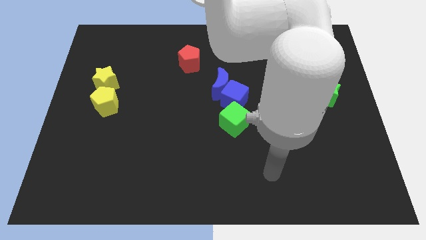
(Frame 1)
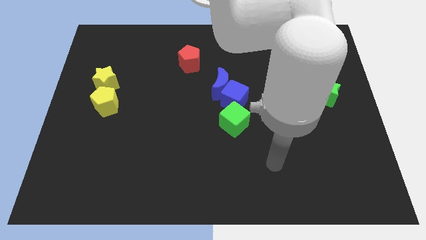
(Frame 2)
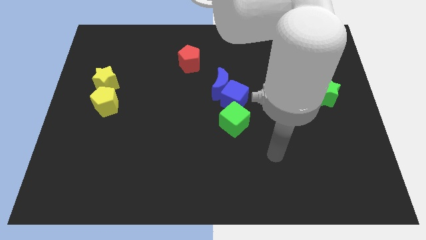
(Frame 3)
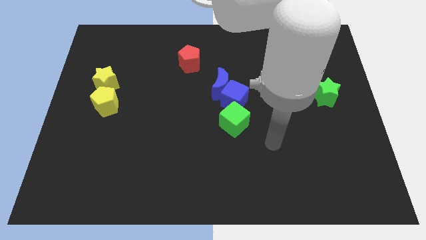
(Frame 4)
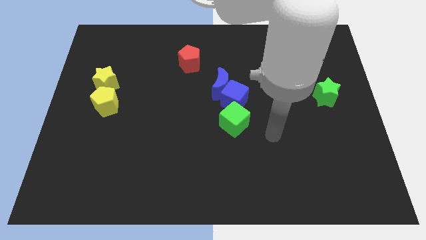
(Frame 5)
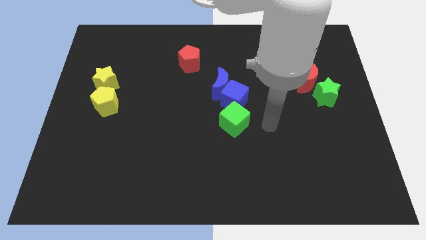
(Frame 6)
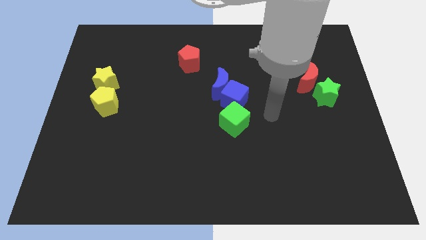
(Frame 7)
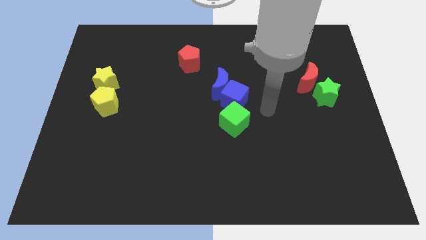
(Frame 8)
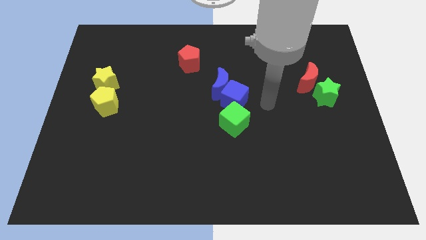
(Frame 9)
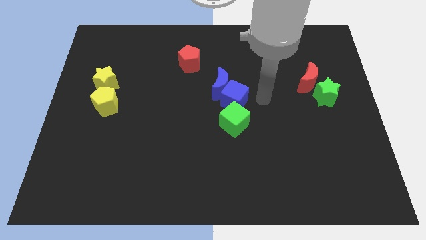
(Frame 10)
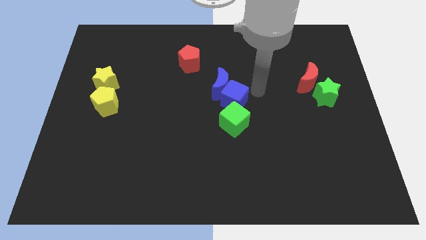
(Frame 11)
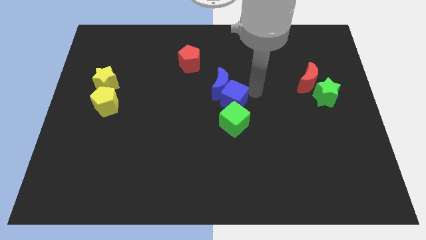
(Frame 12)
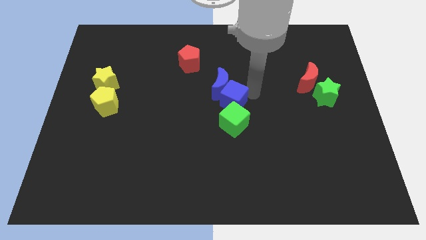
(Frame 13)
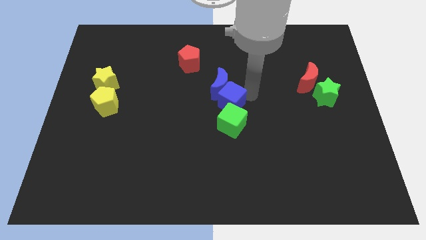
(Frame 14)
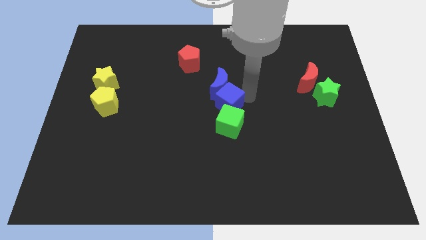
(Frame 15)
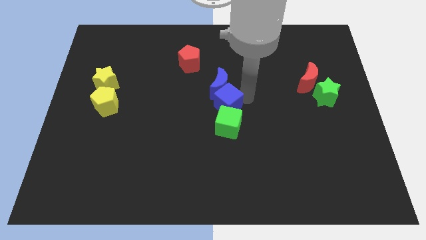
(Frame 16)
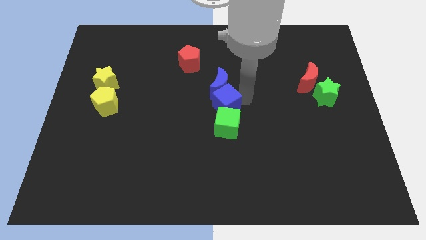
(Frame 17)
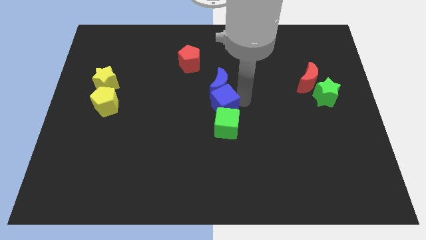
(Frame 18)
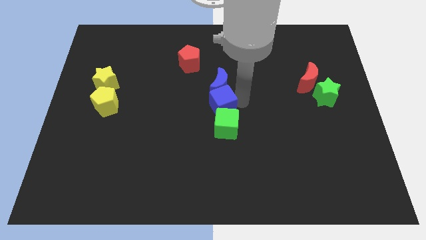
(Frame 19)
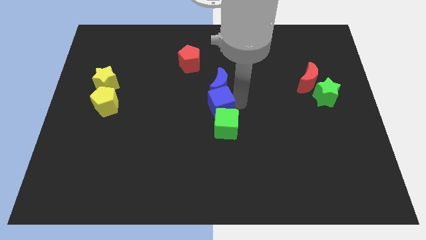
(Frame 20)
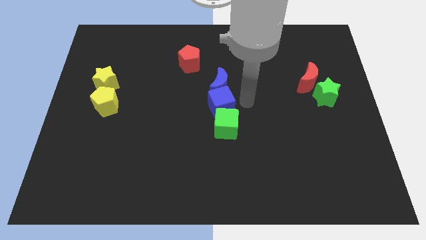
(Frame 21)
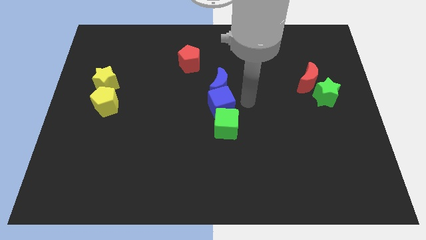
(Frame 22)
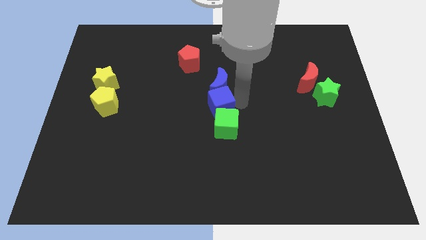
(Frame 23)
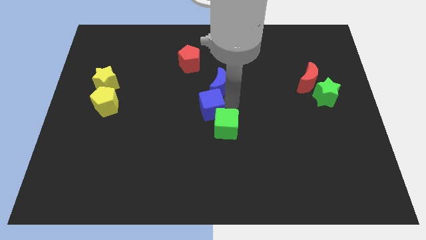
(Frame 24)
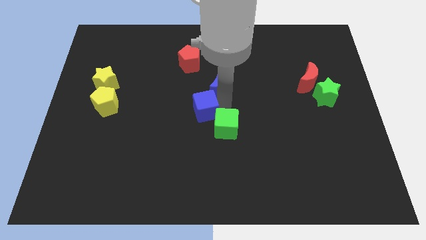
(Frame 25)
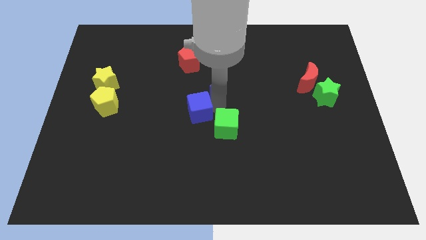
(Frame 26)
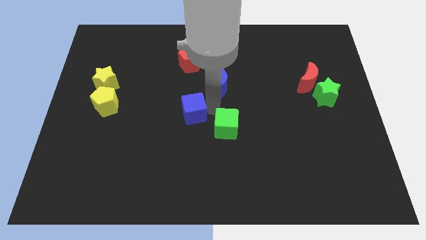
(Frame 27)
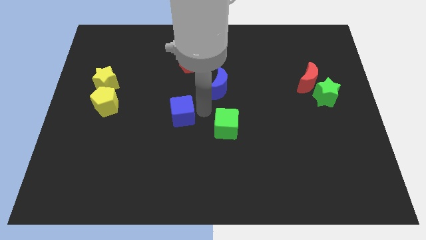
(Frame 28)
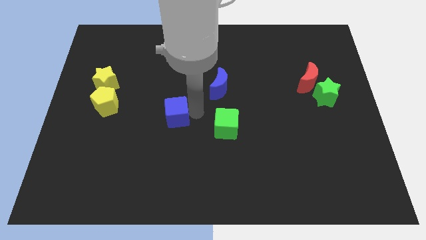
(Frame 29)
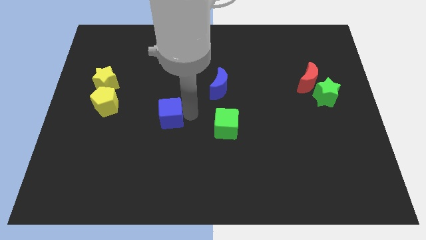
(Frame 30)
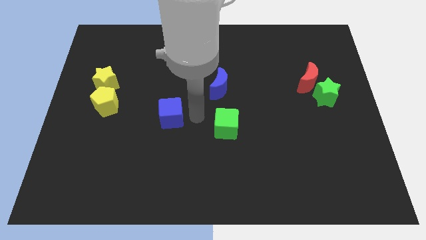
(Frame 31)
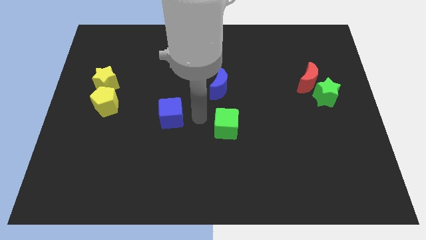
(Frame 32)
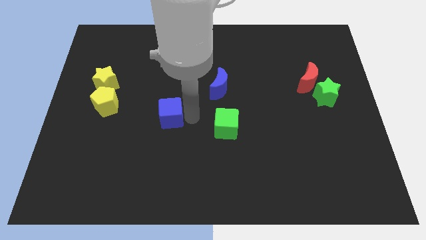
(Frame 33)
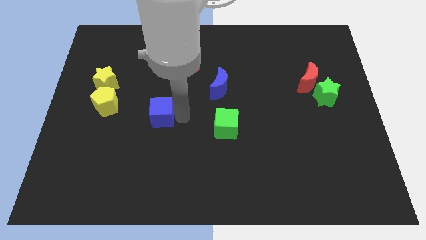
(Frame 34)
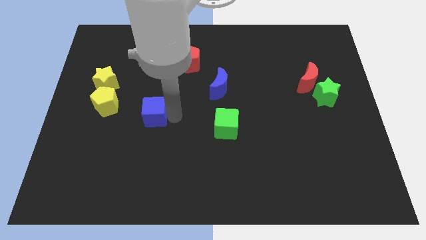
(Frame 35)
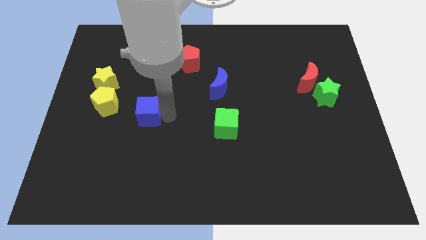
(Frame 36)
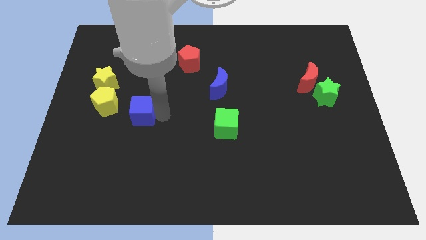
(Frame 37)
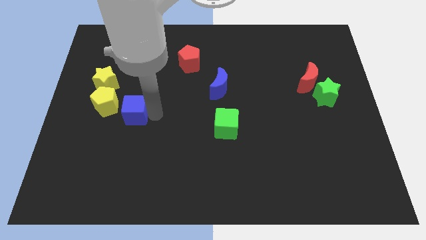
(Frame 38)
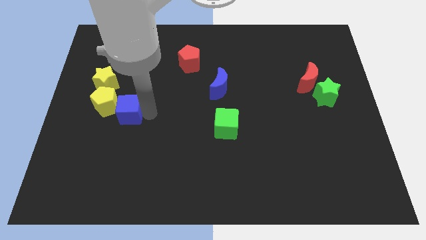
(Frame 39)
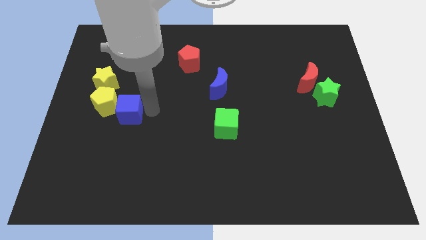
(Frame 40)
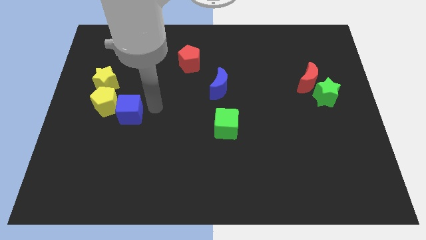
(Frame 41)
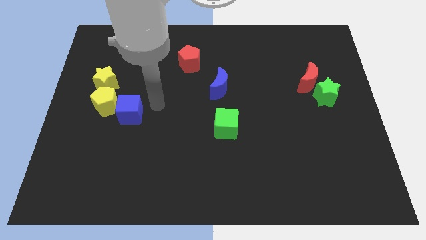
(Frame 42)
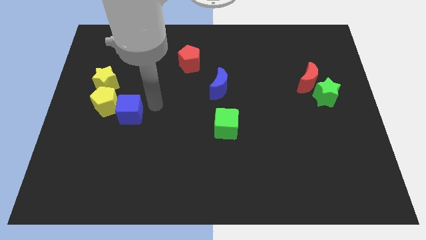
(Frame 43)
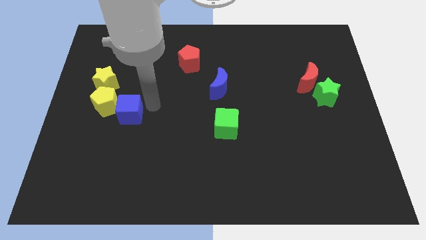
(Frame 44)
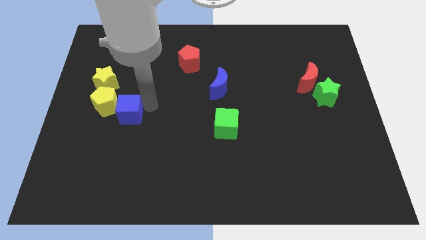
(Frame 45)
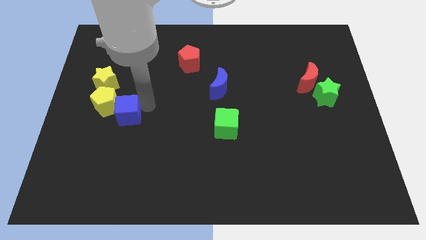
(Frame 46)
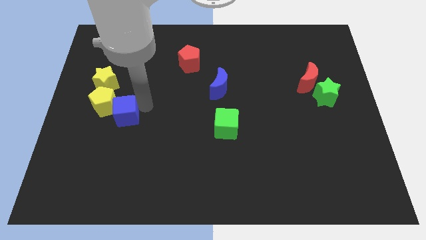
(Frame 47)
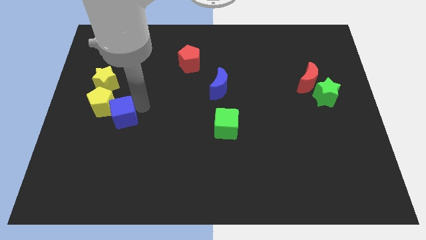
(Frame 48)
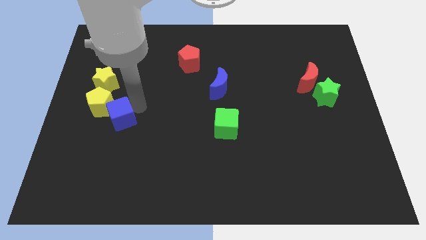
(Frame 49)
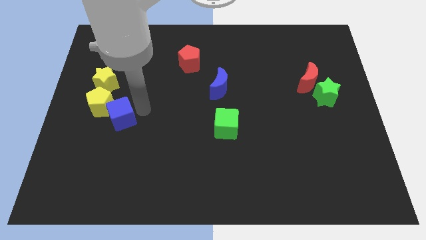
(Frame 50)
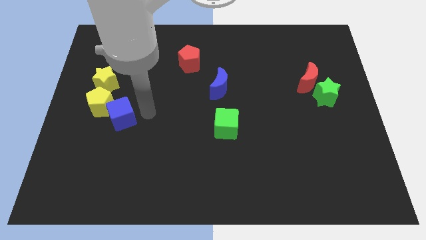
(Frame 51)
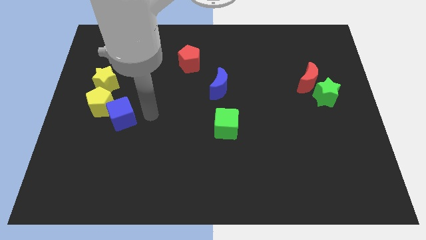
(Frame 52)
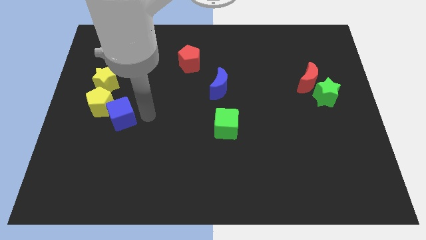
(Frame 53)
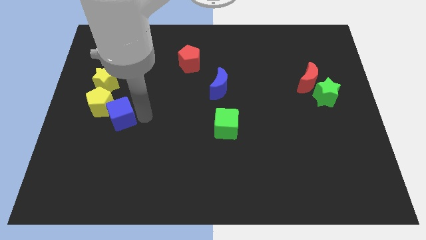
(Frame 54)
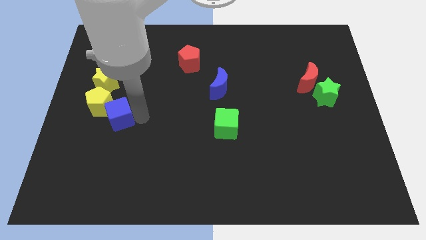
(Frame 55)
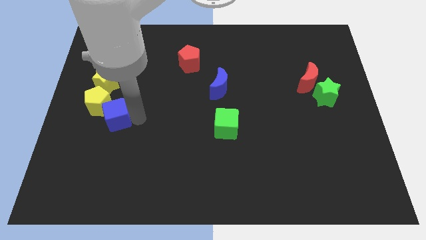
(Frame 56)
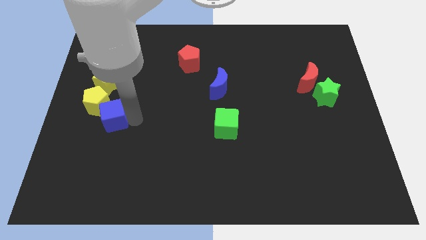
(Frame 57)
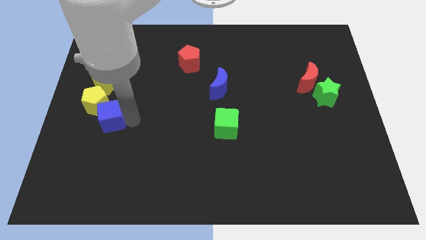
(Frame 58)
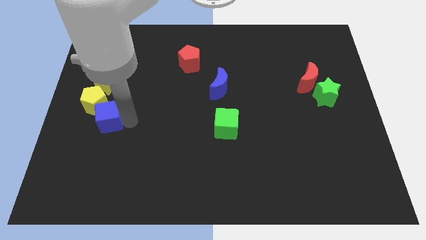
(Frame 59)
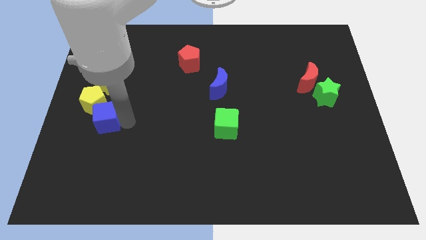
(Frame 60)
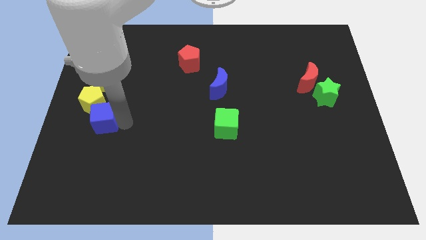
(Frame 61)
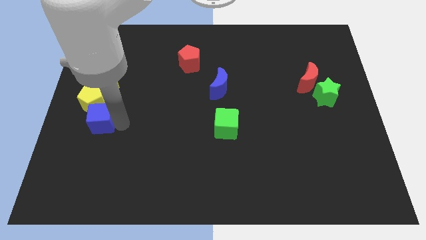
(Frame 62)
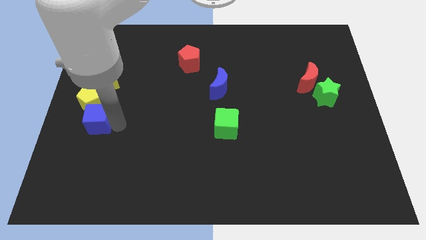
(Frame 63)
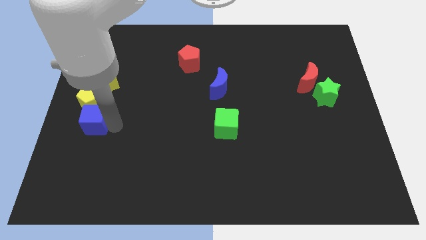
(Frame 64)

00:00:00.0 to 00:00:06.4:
push the blue cube to the left side of the board
